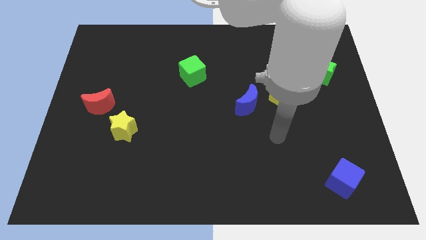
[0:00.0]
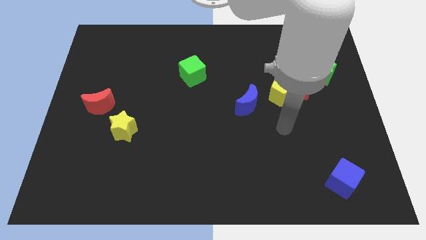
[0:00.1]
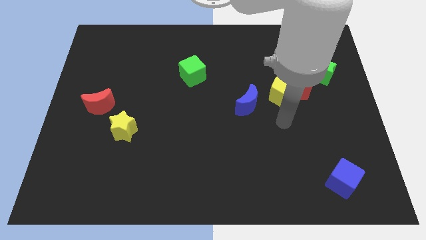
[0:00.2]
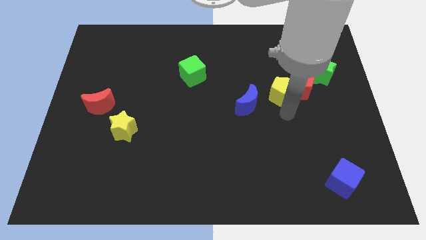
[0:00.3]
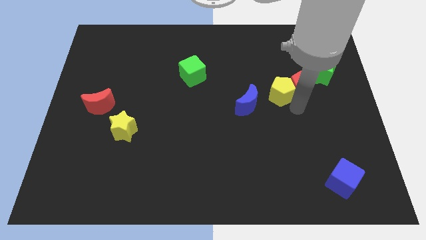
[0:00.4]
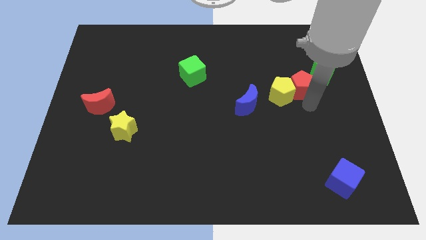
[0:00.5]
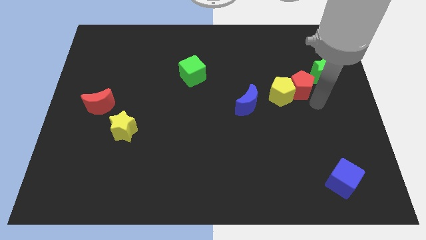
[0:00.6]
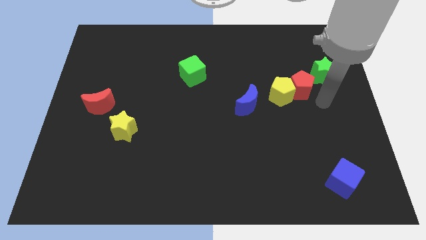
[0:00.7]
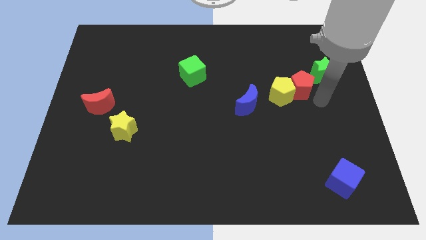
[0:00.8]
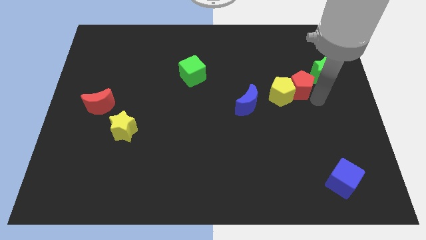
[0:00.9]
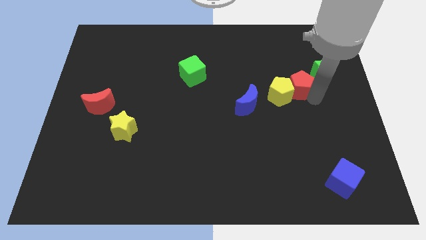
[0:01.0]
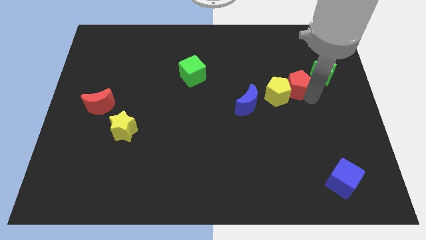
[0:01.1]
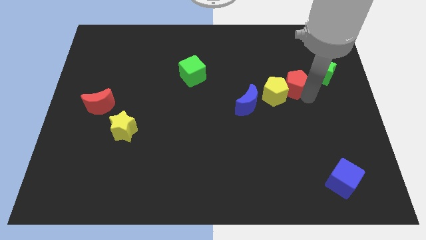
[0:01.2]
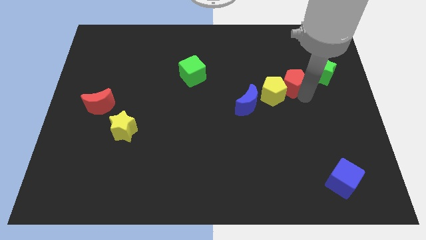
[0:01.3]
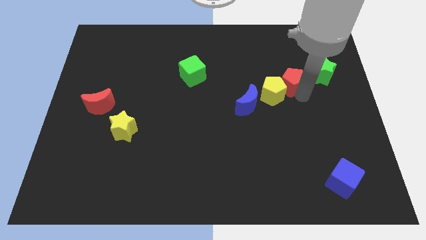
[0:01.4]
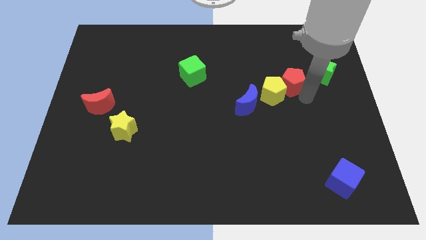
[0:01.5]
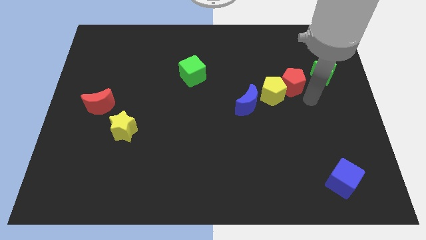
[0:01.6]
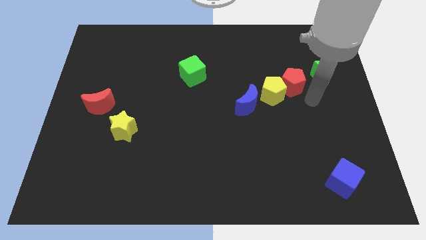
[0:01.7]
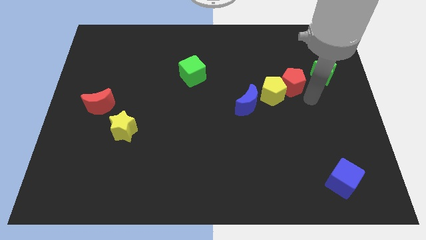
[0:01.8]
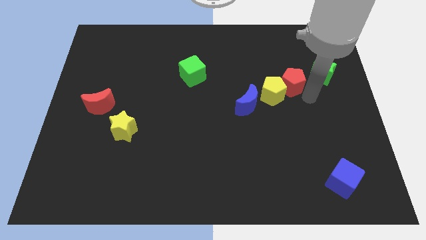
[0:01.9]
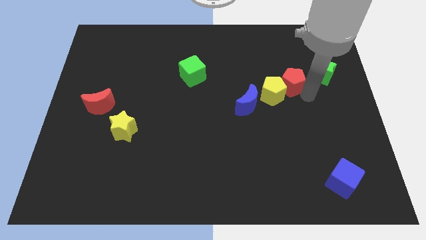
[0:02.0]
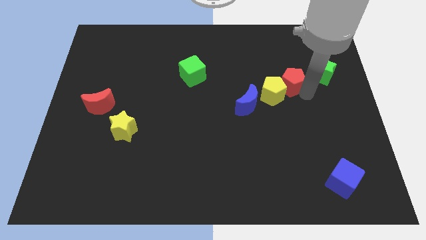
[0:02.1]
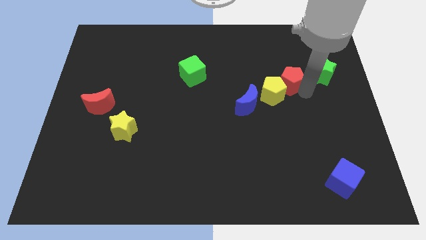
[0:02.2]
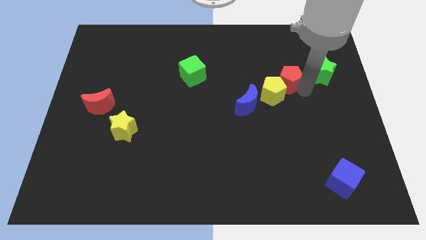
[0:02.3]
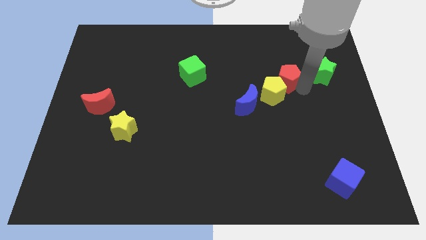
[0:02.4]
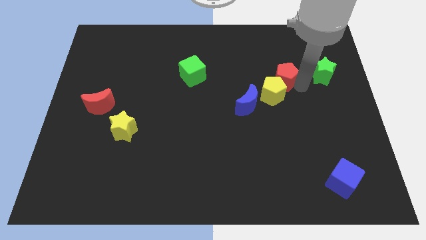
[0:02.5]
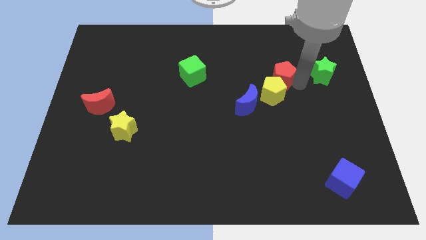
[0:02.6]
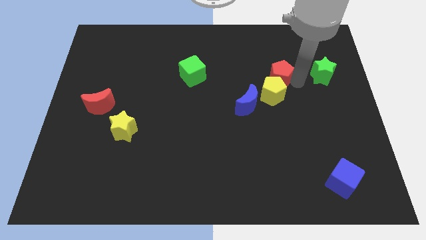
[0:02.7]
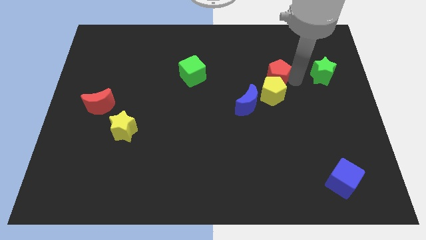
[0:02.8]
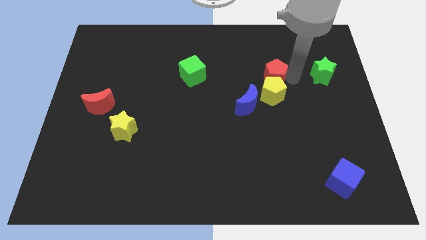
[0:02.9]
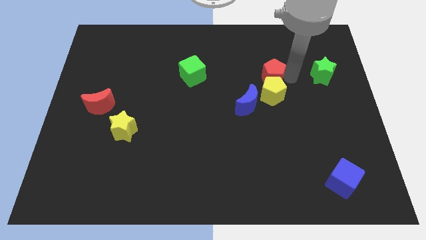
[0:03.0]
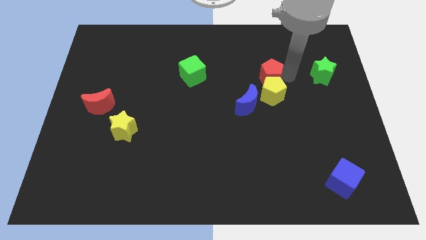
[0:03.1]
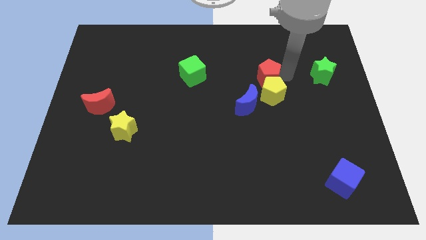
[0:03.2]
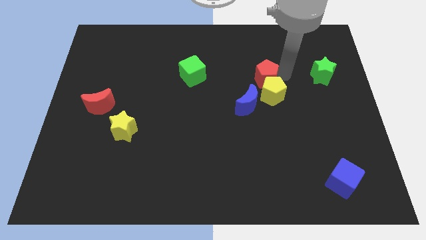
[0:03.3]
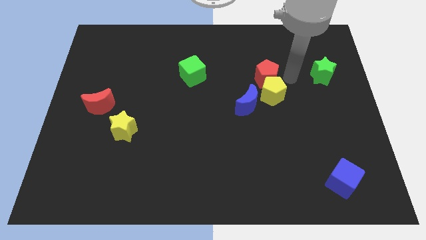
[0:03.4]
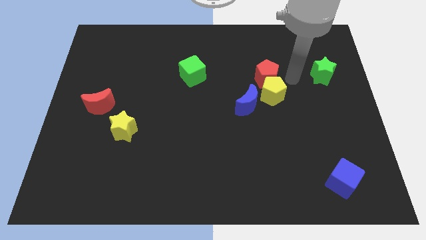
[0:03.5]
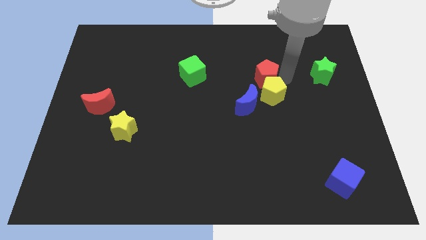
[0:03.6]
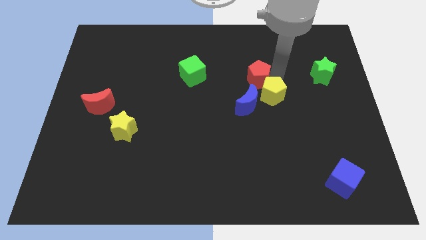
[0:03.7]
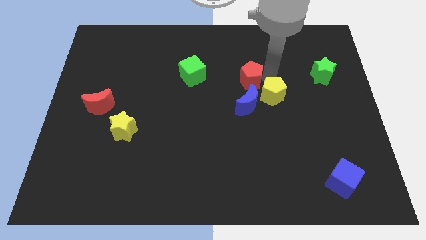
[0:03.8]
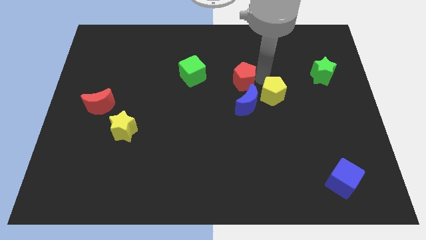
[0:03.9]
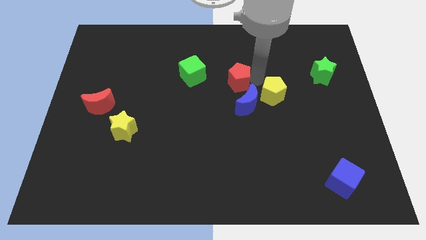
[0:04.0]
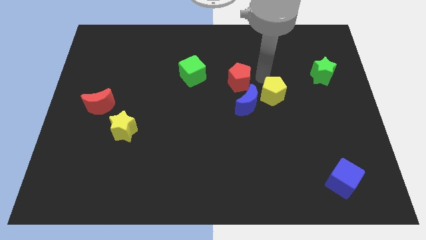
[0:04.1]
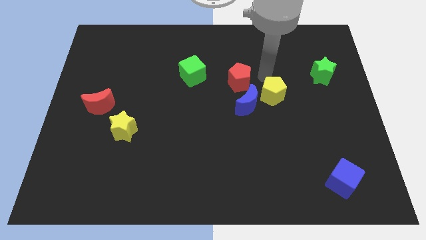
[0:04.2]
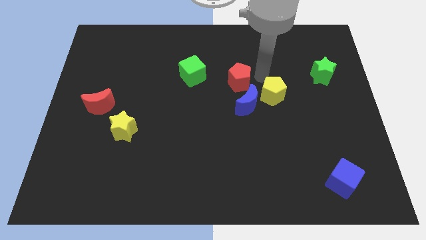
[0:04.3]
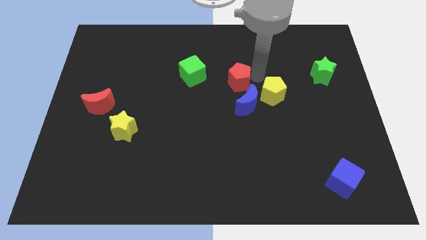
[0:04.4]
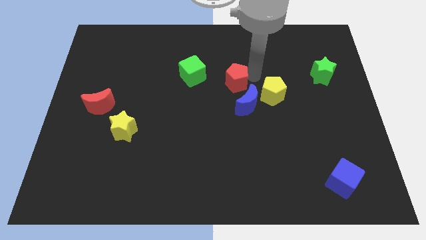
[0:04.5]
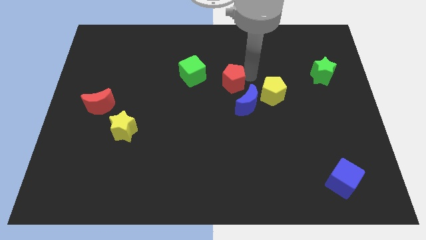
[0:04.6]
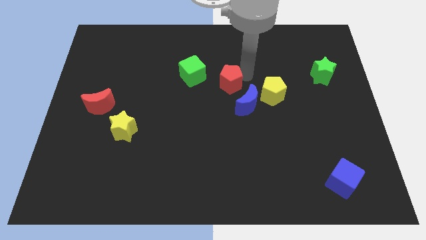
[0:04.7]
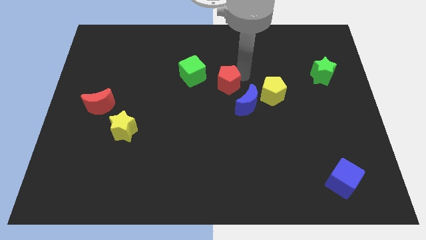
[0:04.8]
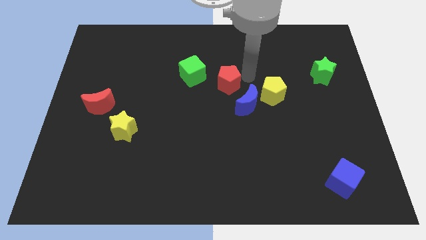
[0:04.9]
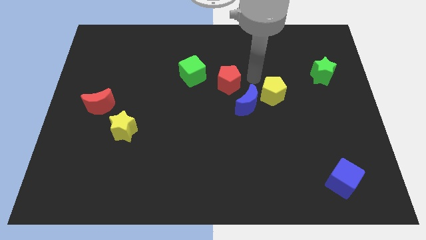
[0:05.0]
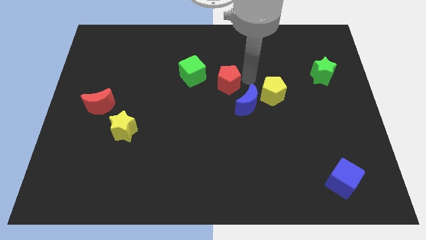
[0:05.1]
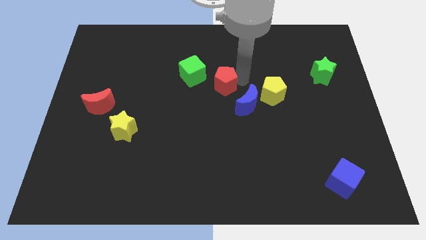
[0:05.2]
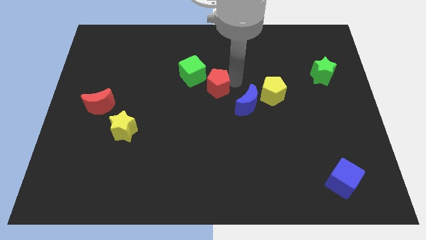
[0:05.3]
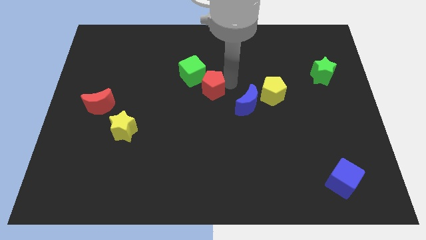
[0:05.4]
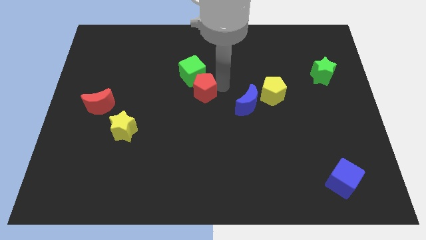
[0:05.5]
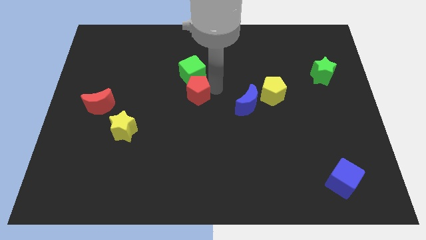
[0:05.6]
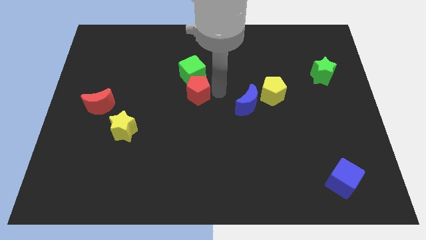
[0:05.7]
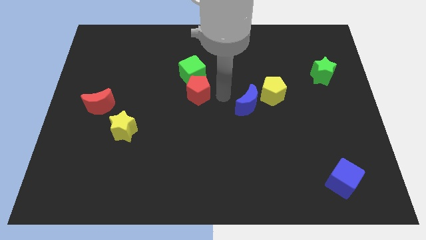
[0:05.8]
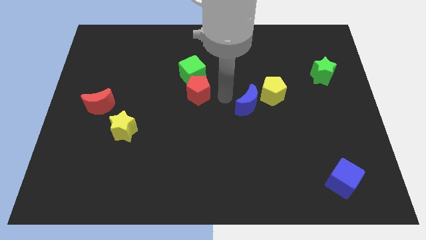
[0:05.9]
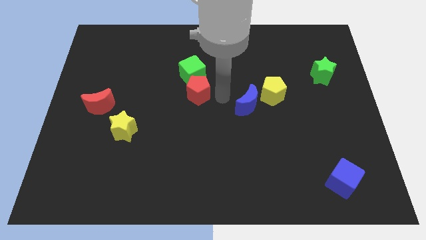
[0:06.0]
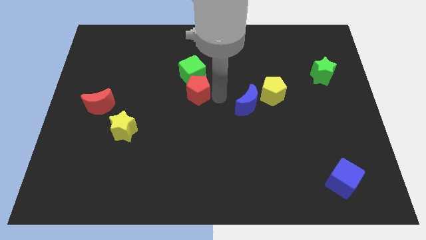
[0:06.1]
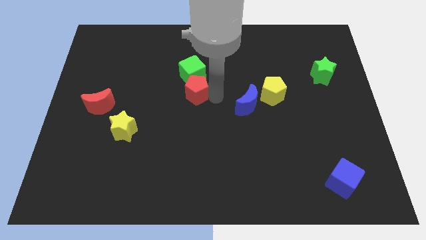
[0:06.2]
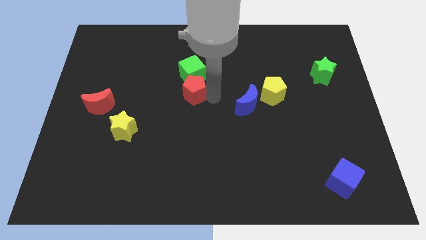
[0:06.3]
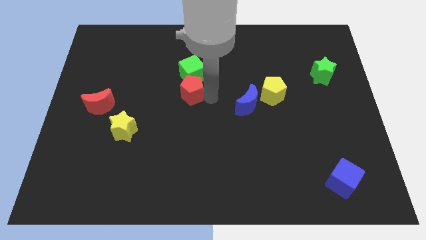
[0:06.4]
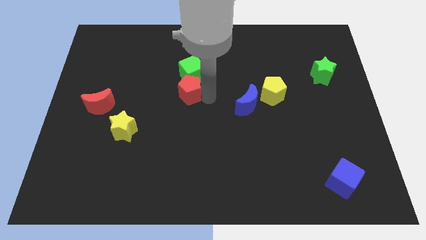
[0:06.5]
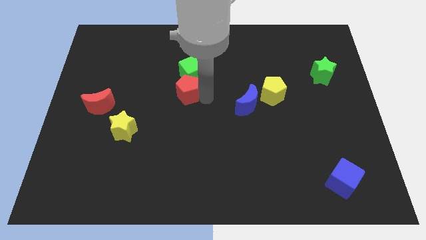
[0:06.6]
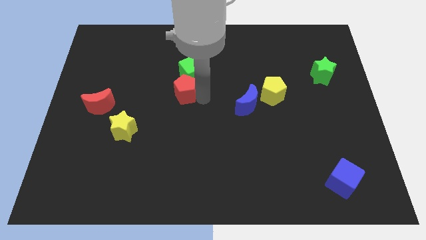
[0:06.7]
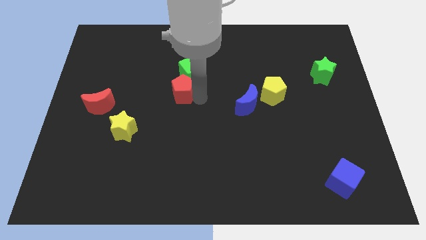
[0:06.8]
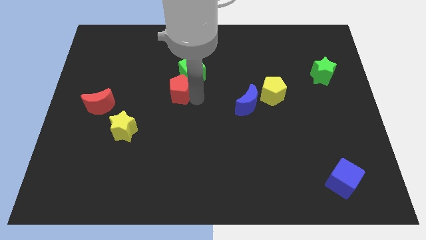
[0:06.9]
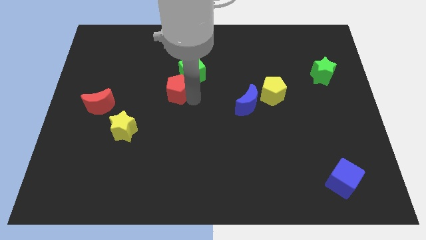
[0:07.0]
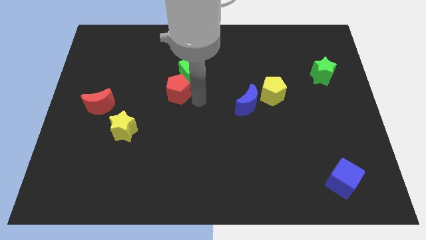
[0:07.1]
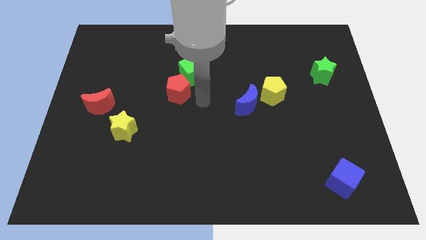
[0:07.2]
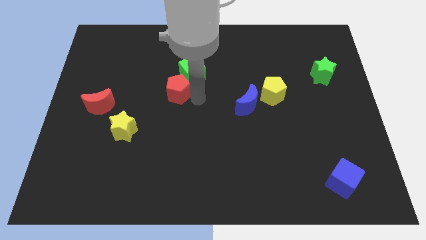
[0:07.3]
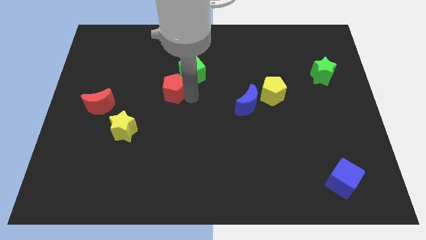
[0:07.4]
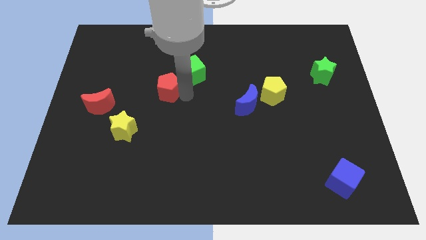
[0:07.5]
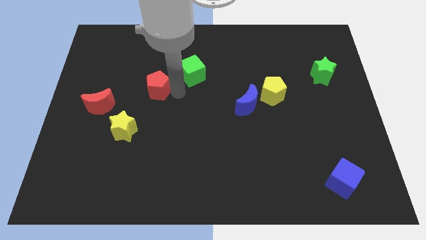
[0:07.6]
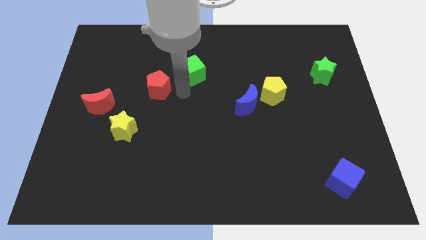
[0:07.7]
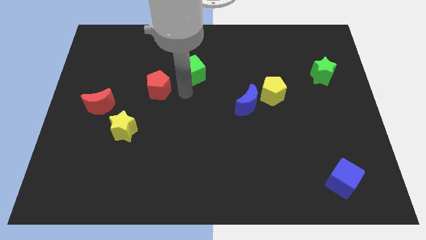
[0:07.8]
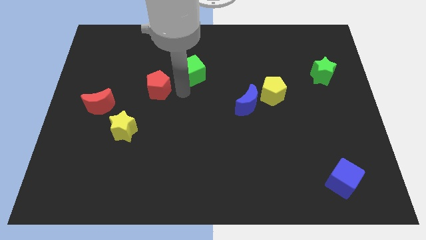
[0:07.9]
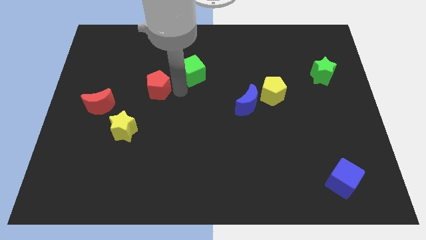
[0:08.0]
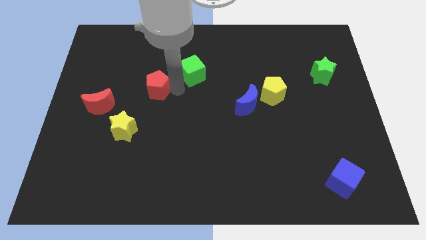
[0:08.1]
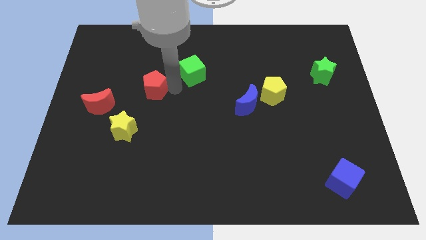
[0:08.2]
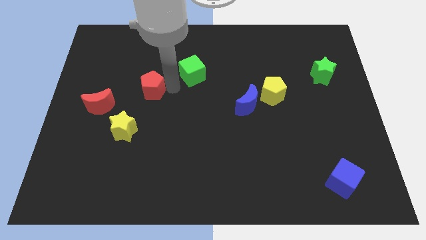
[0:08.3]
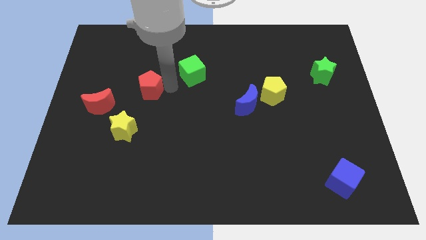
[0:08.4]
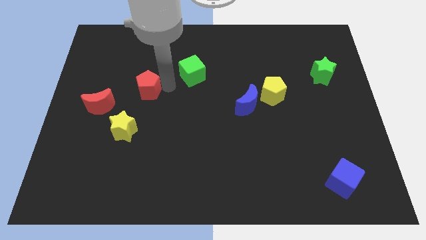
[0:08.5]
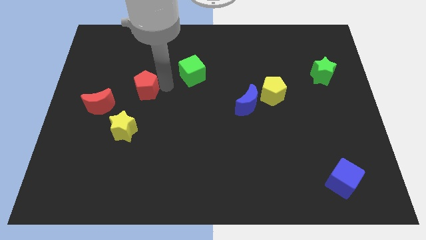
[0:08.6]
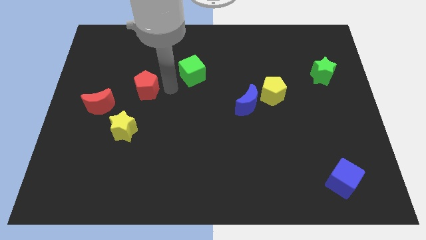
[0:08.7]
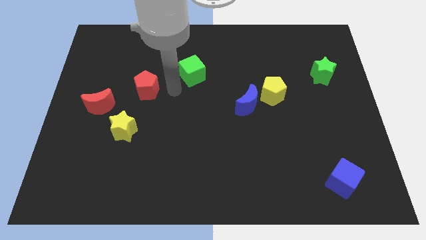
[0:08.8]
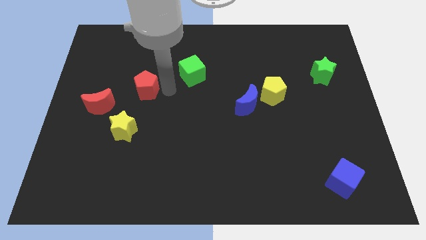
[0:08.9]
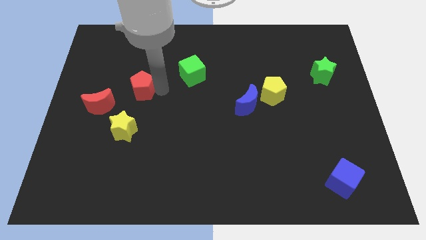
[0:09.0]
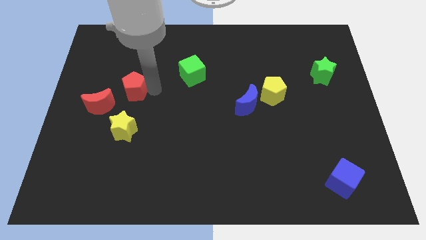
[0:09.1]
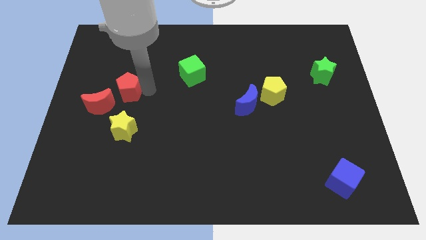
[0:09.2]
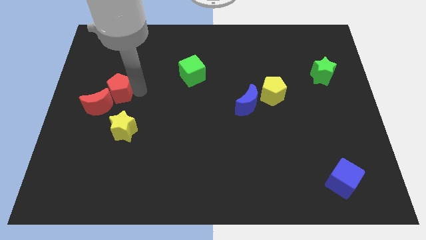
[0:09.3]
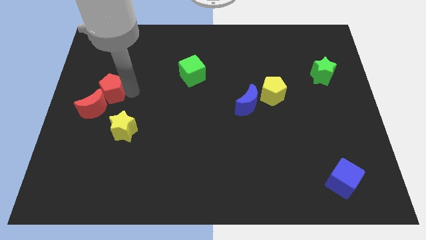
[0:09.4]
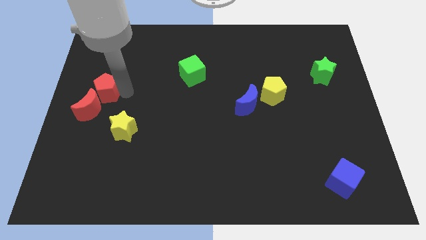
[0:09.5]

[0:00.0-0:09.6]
push the red pentagon to the left side
